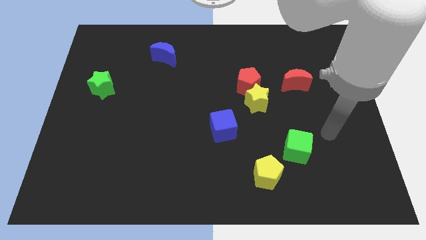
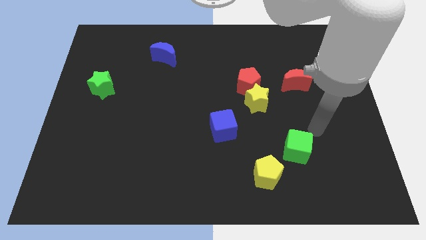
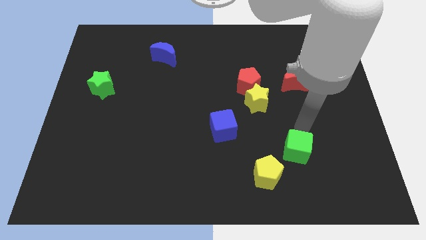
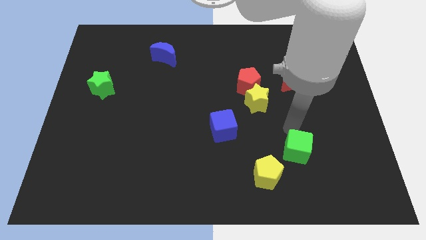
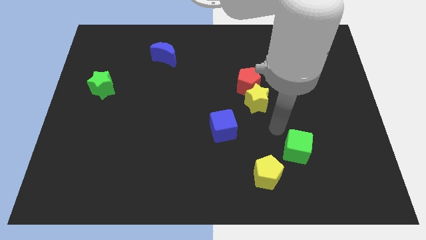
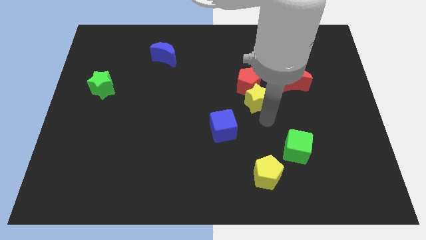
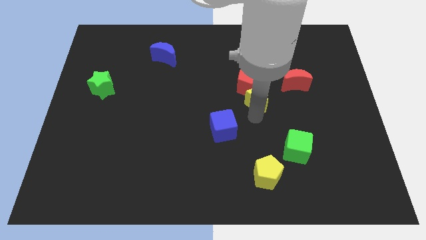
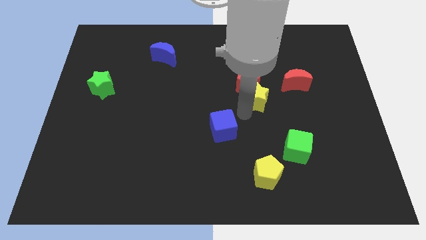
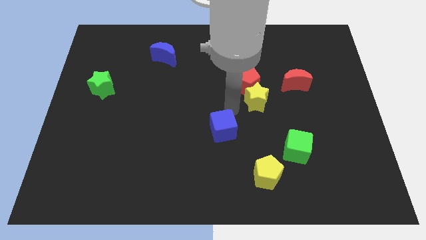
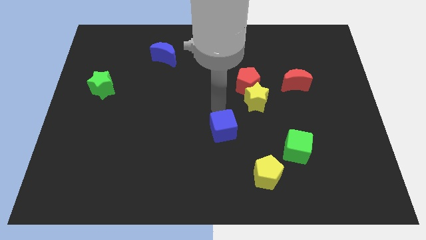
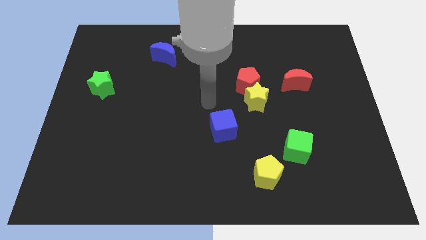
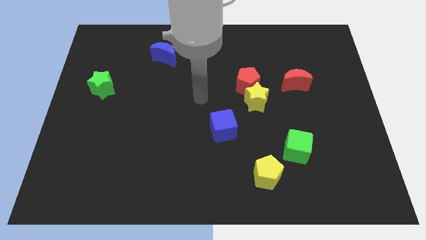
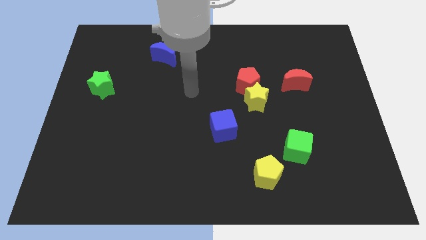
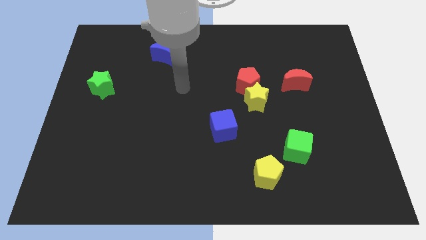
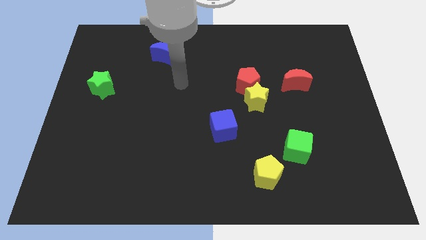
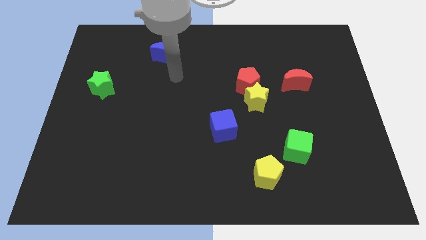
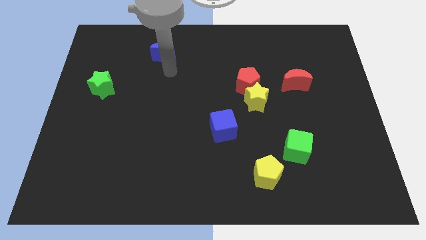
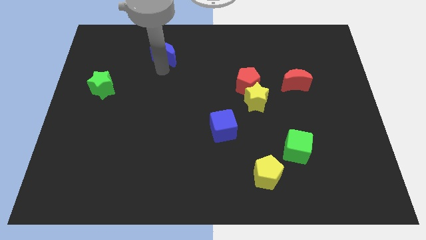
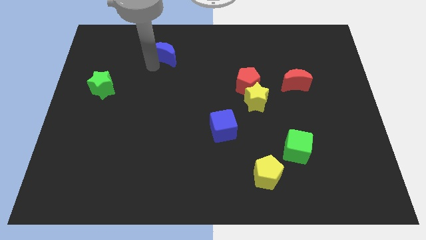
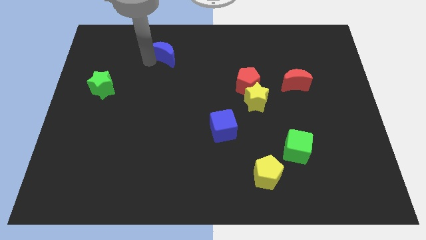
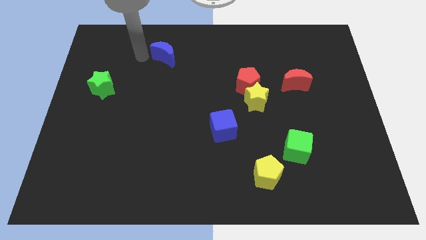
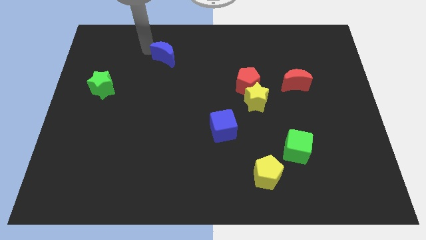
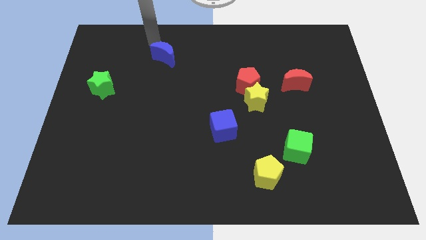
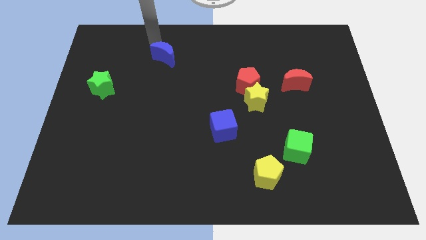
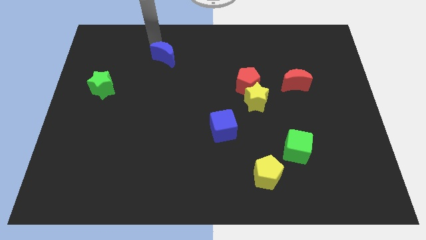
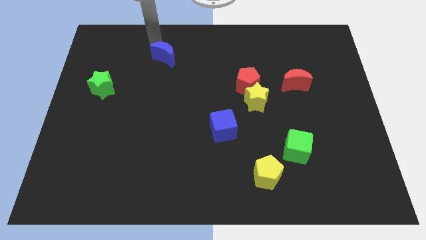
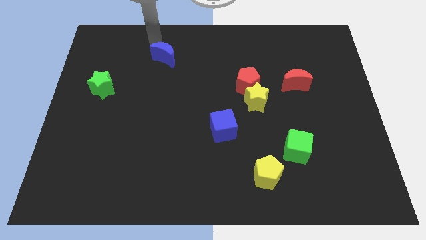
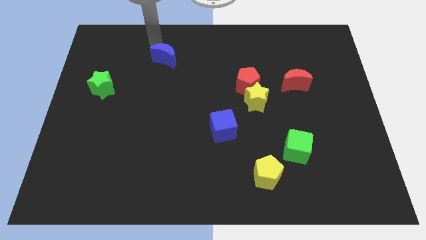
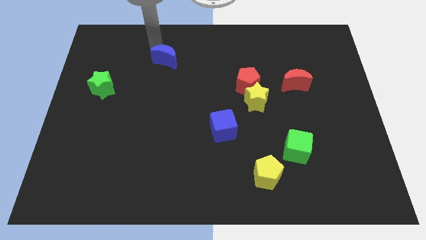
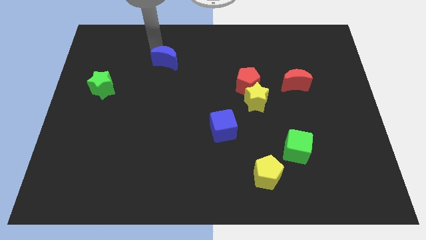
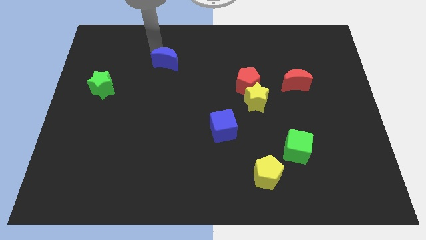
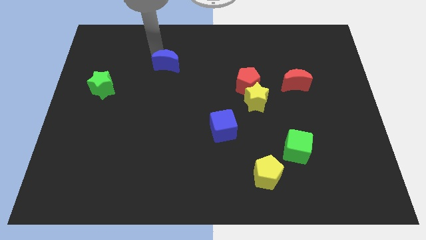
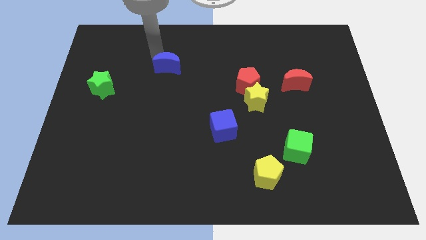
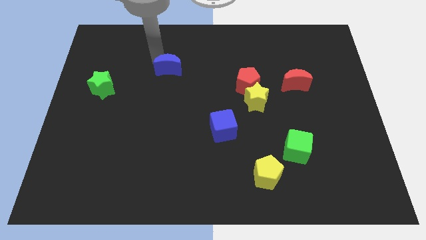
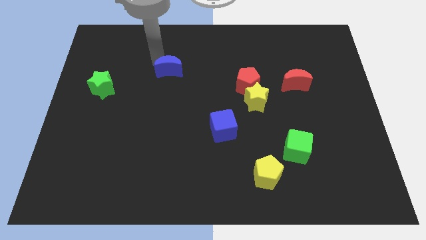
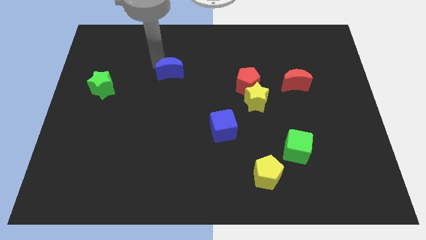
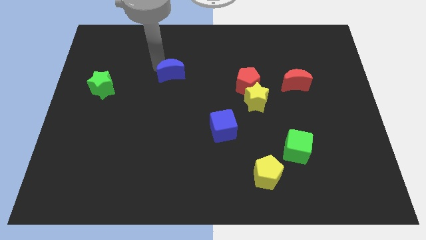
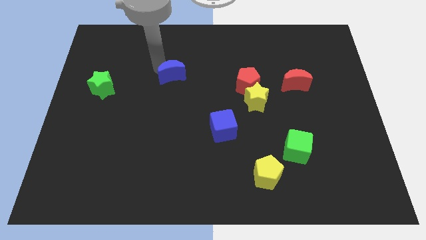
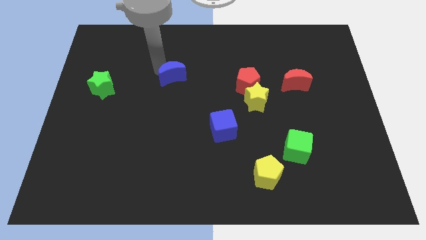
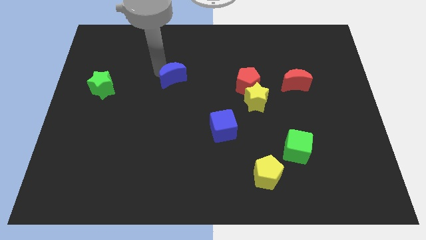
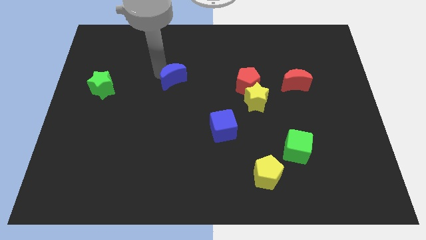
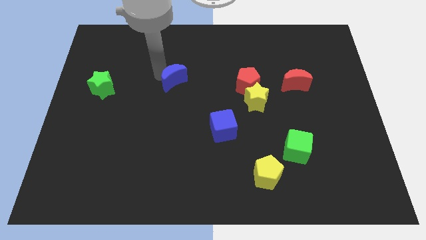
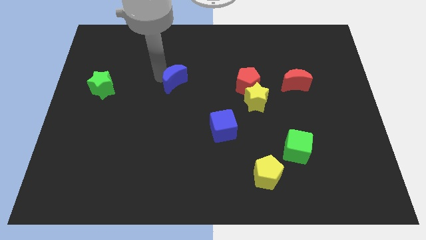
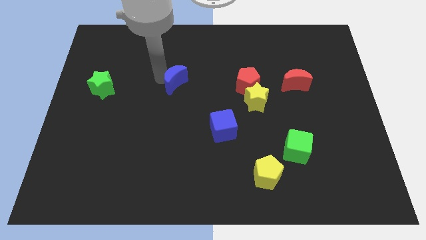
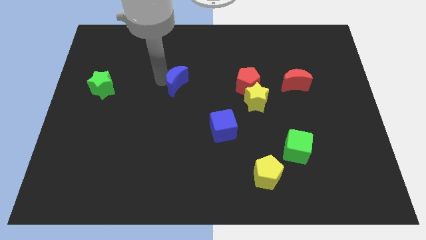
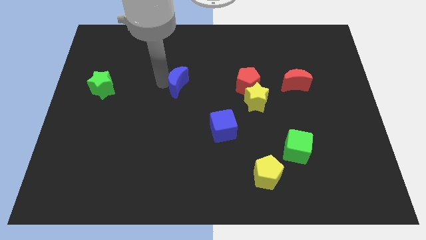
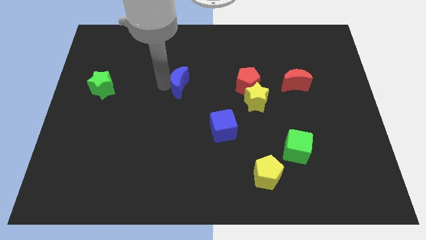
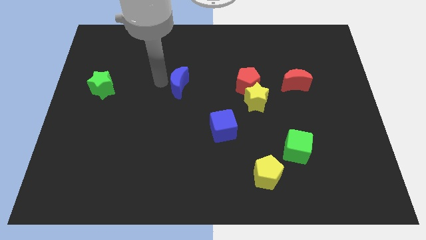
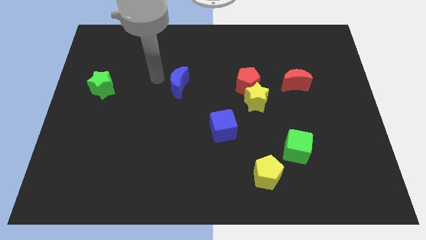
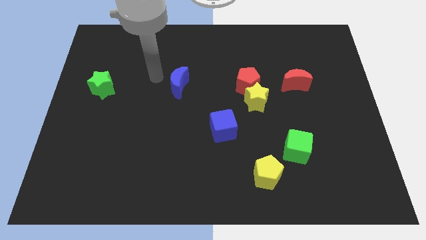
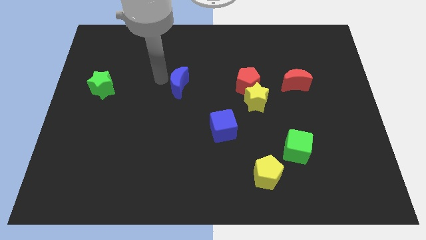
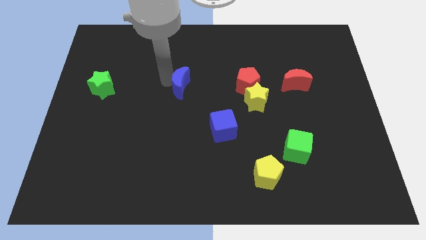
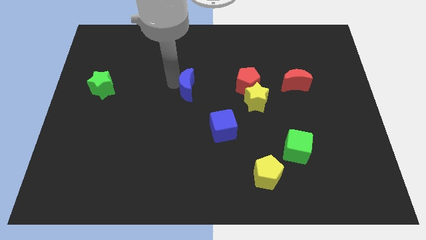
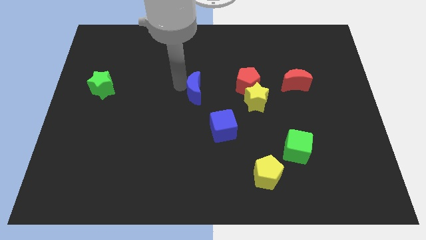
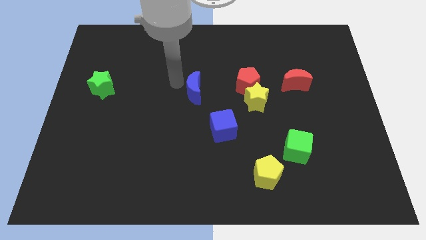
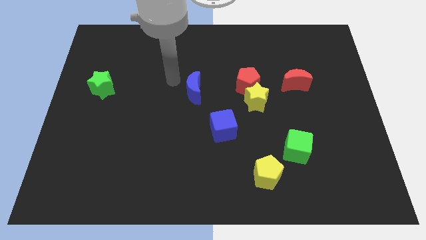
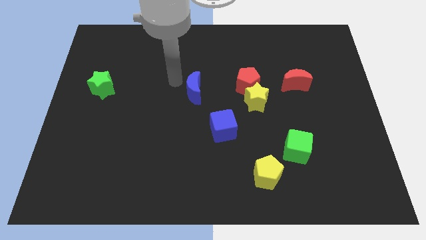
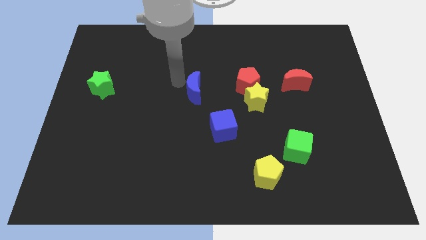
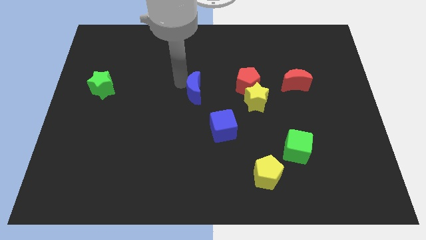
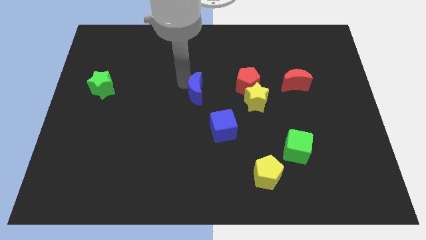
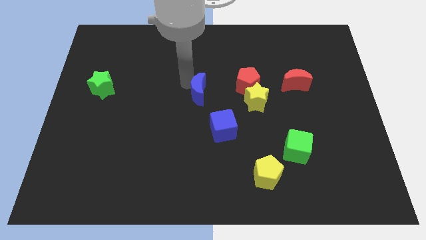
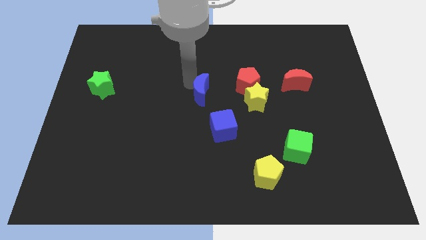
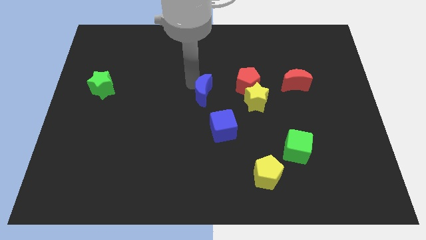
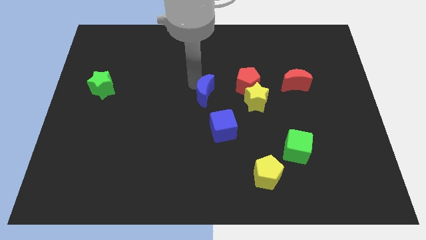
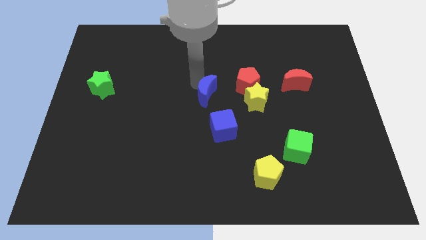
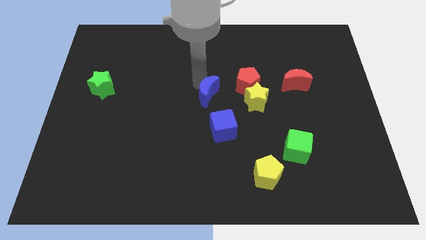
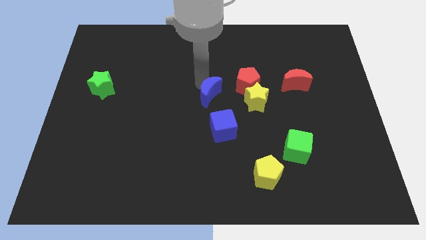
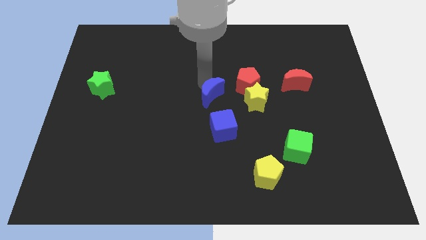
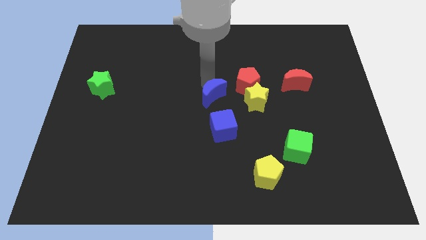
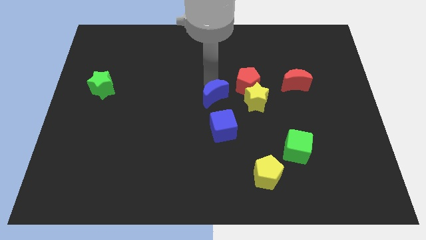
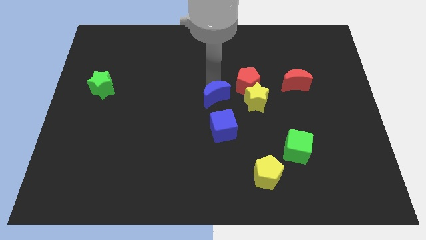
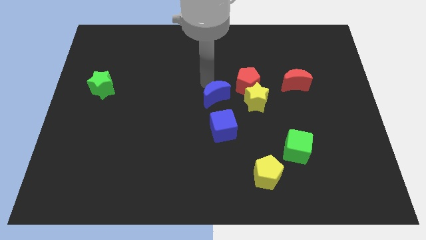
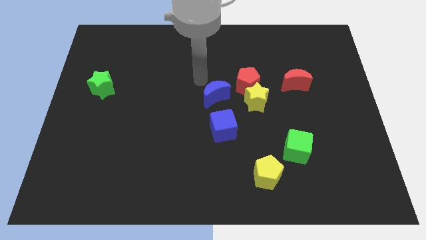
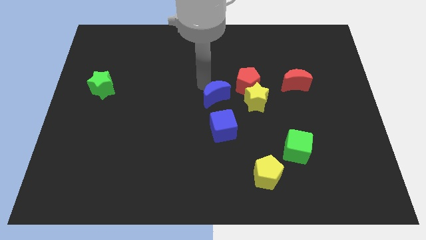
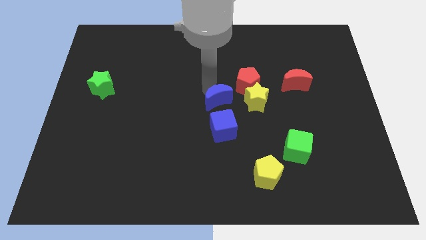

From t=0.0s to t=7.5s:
push the blue moon downwards and to the right

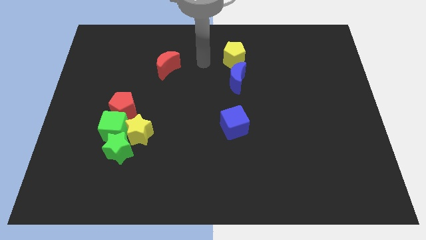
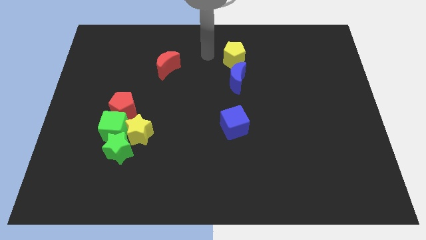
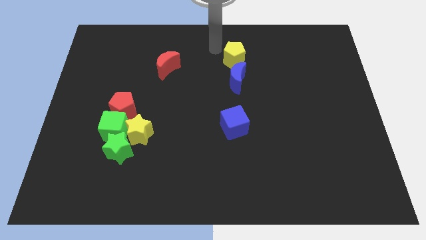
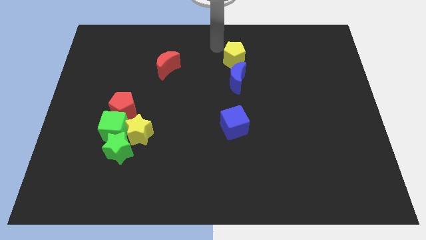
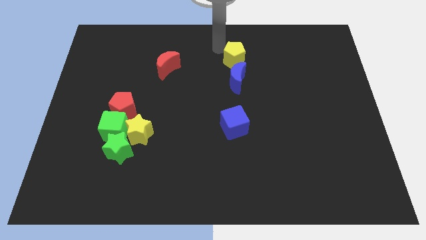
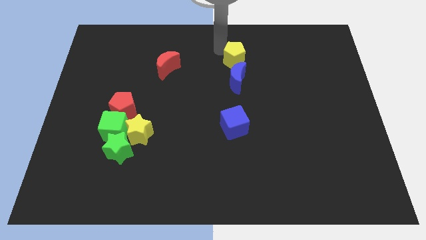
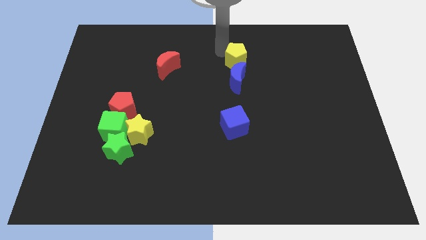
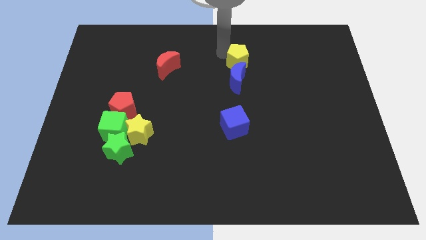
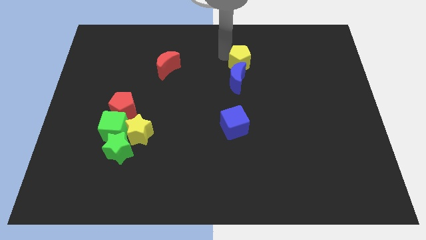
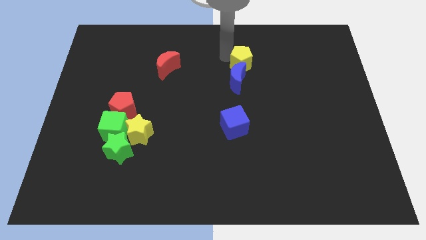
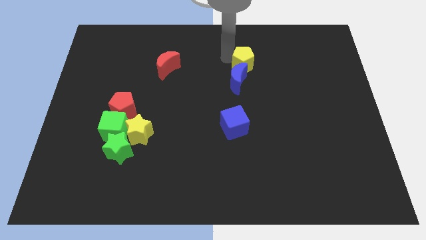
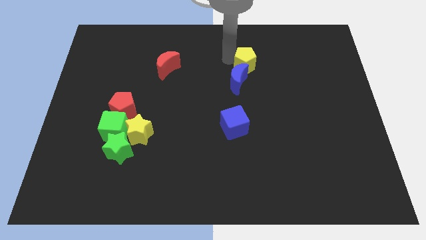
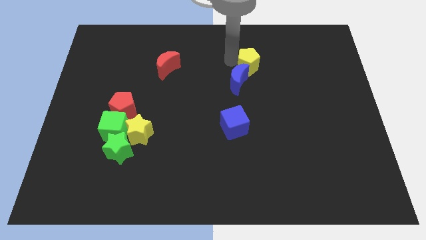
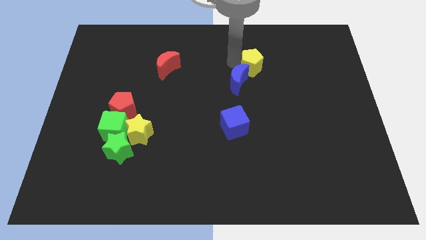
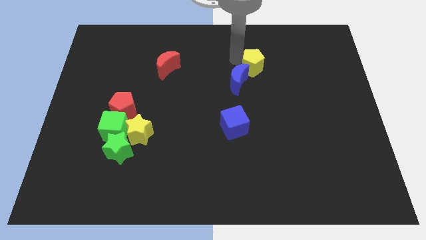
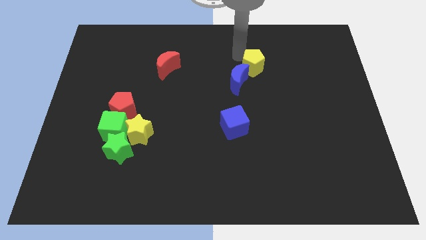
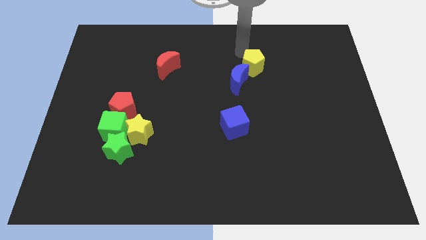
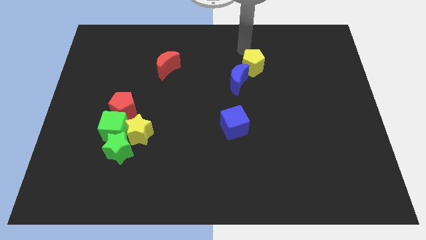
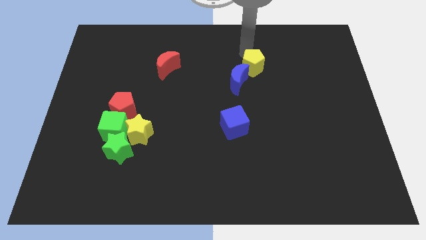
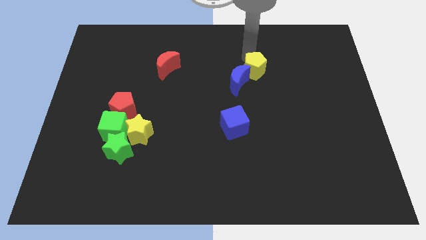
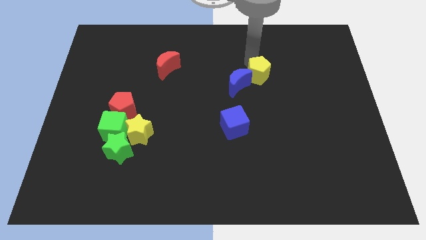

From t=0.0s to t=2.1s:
slightly move the yellow pentagon downwards and right diagonally
